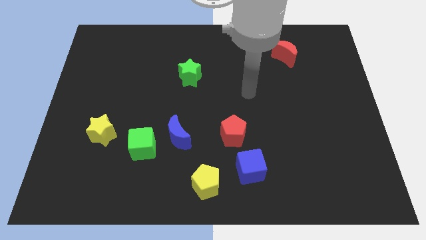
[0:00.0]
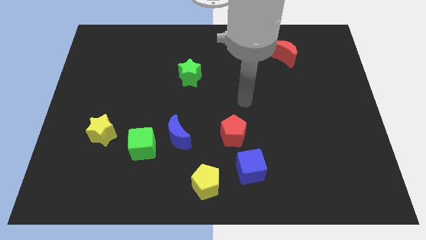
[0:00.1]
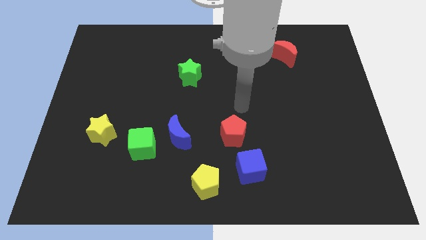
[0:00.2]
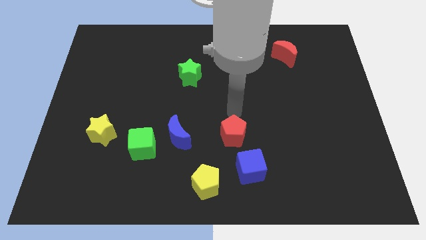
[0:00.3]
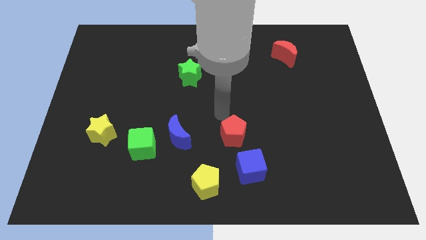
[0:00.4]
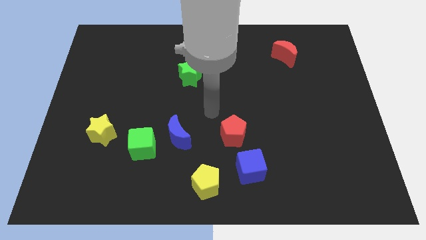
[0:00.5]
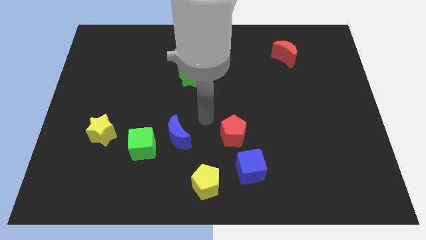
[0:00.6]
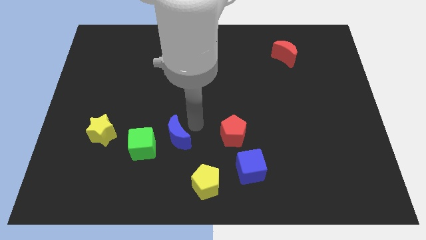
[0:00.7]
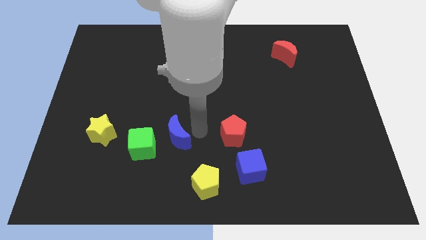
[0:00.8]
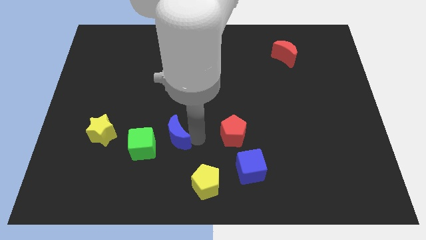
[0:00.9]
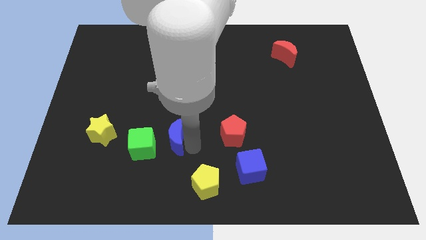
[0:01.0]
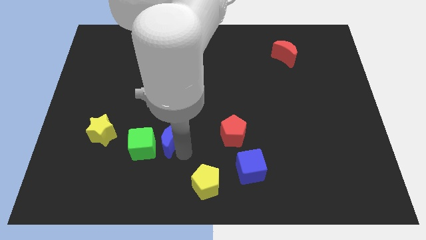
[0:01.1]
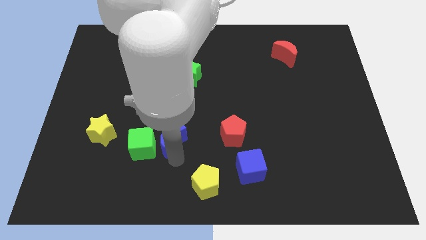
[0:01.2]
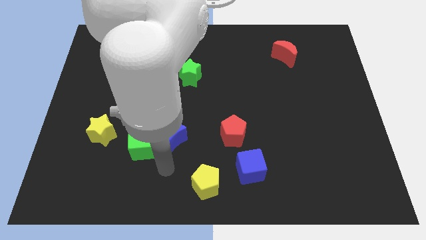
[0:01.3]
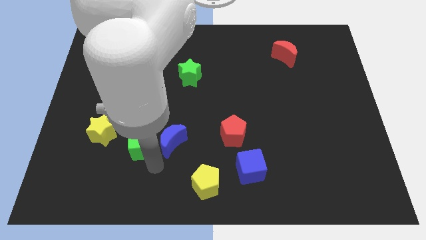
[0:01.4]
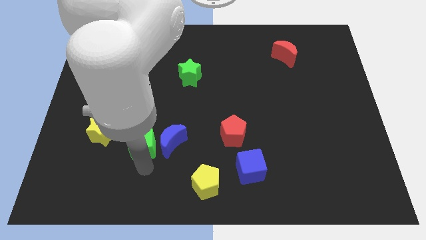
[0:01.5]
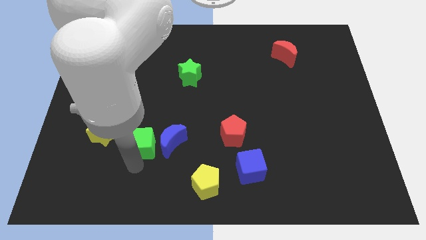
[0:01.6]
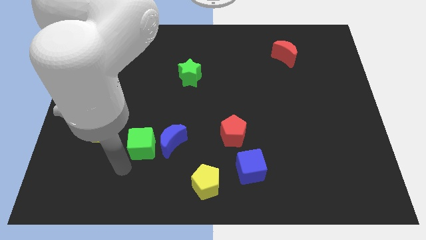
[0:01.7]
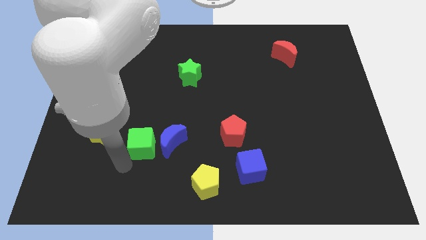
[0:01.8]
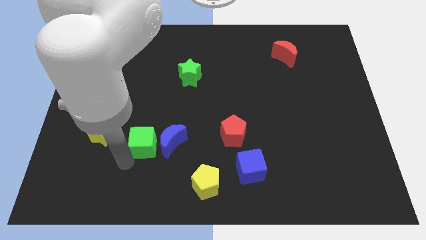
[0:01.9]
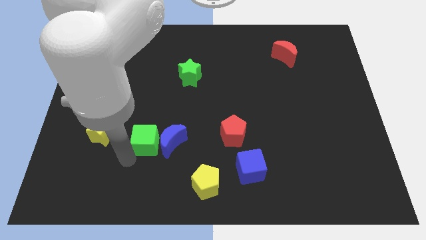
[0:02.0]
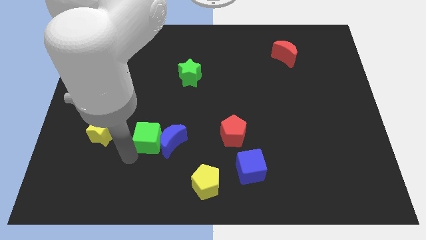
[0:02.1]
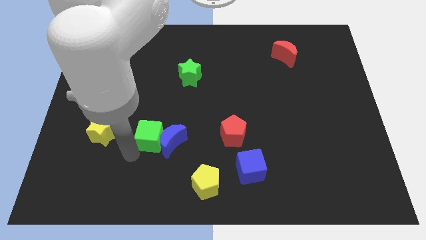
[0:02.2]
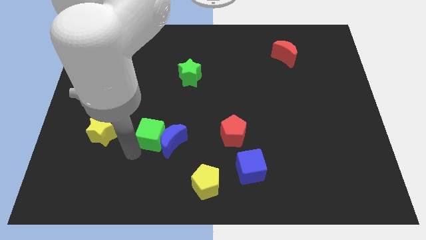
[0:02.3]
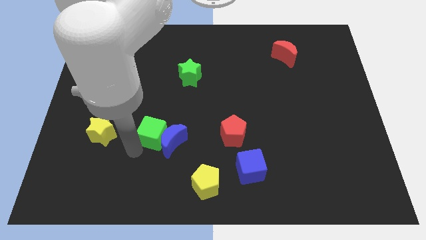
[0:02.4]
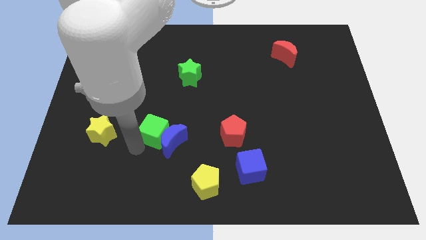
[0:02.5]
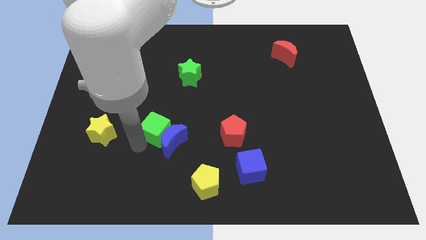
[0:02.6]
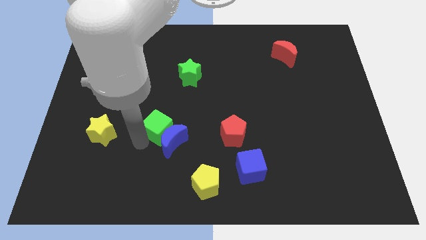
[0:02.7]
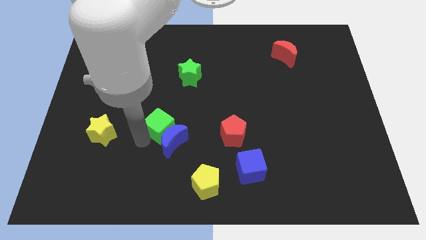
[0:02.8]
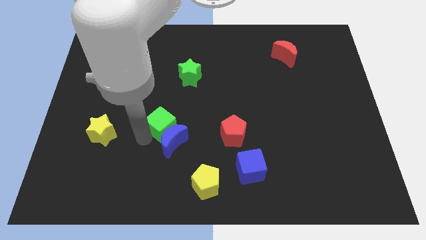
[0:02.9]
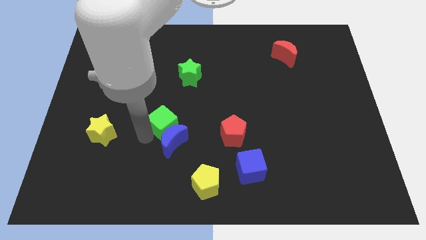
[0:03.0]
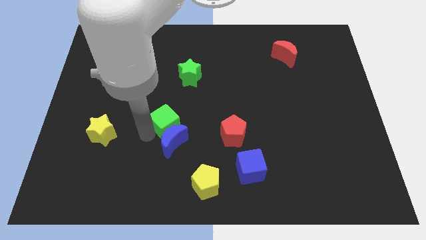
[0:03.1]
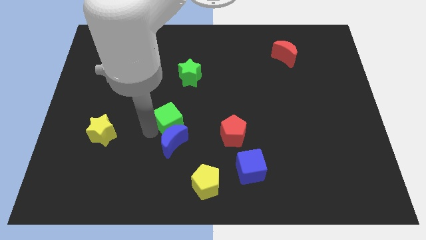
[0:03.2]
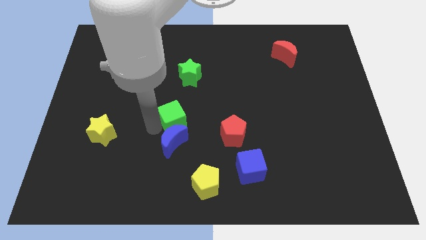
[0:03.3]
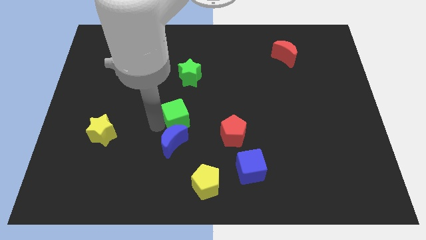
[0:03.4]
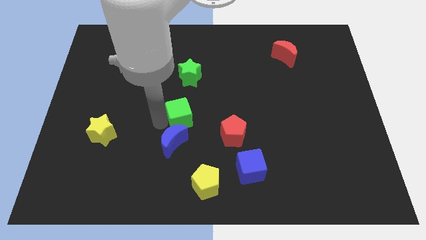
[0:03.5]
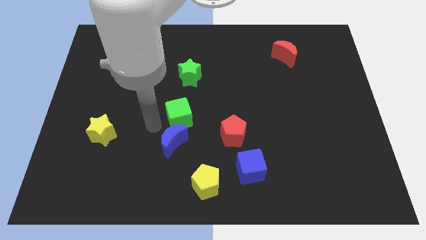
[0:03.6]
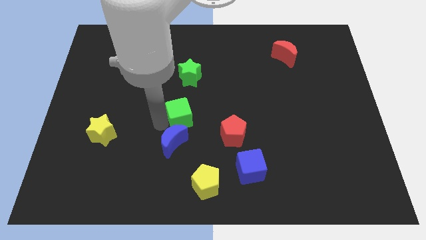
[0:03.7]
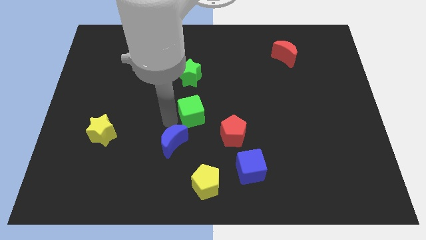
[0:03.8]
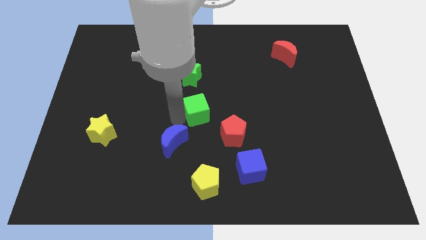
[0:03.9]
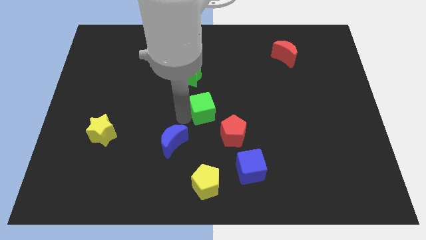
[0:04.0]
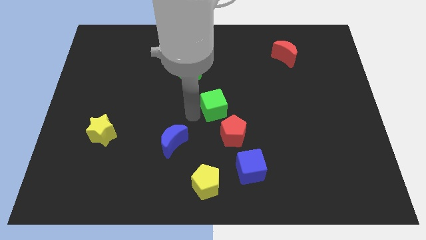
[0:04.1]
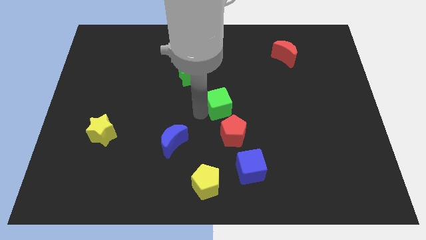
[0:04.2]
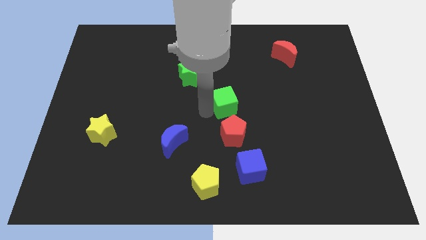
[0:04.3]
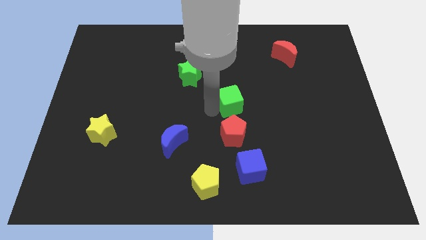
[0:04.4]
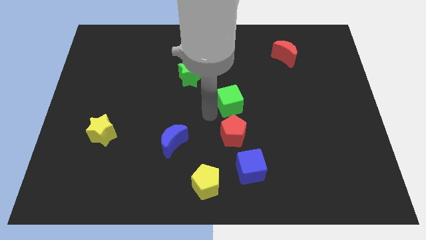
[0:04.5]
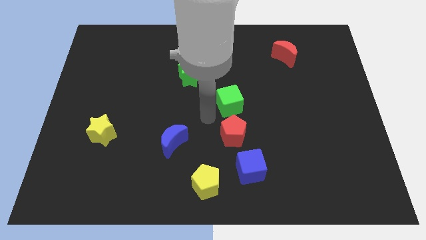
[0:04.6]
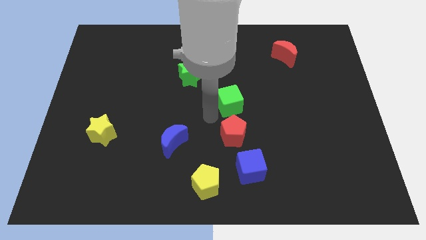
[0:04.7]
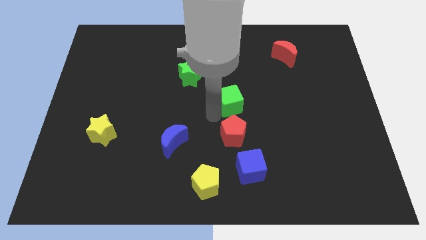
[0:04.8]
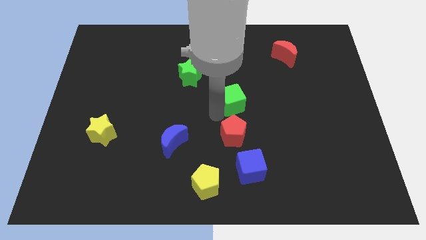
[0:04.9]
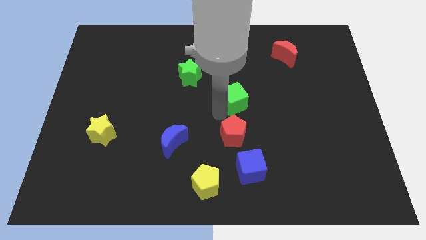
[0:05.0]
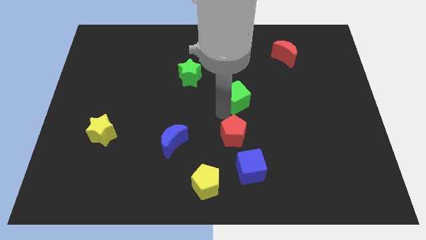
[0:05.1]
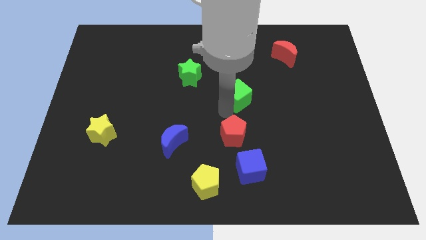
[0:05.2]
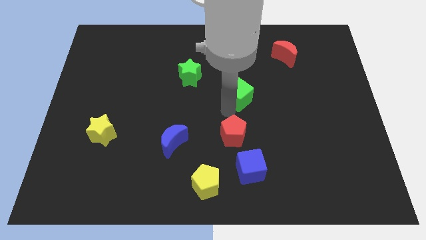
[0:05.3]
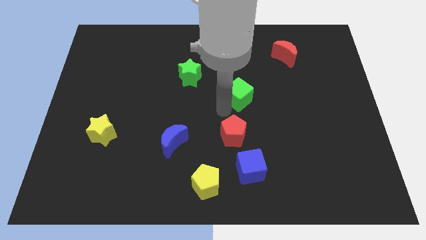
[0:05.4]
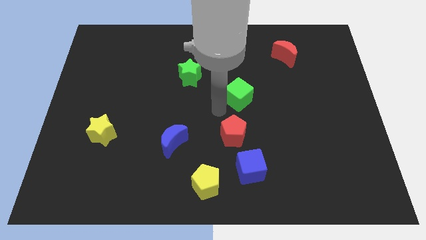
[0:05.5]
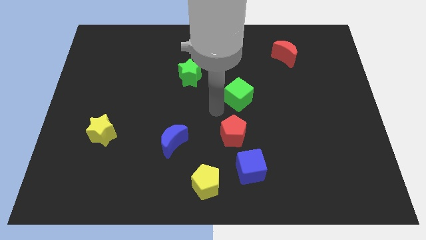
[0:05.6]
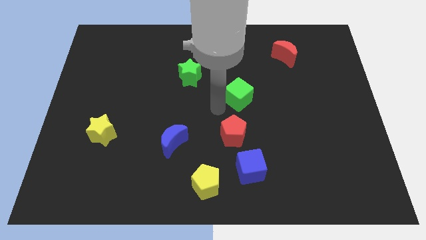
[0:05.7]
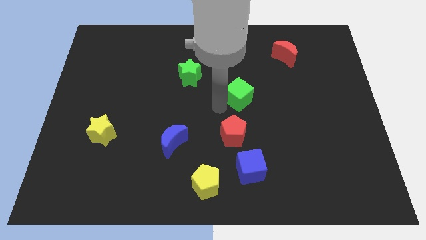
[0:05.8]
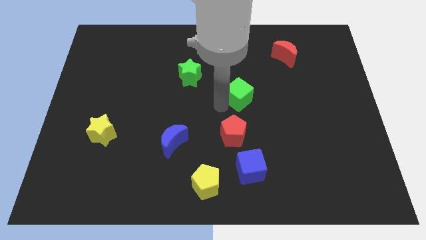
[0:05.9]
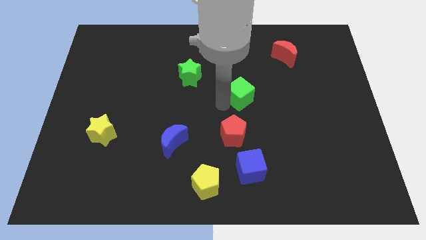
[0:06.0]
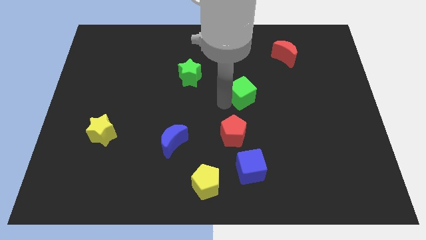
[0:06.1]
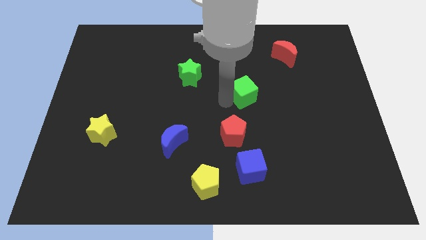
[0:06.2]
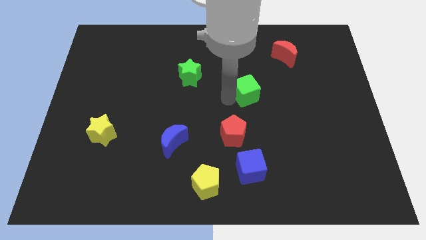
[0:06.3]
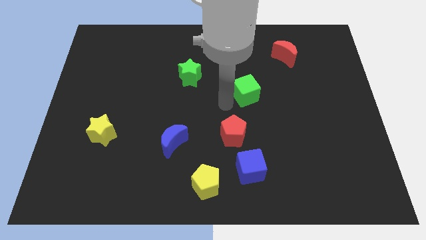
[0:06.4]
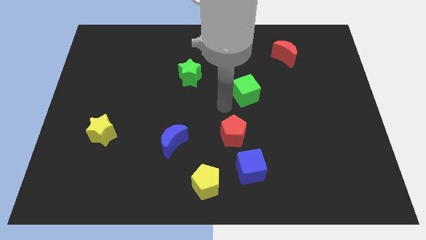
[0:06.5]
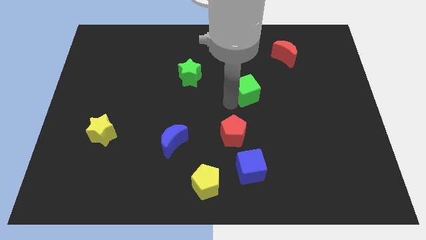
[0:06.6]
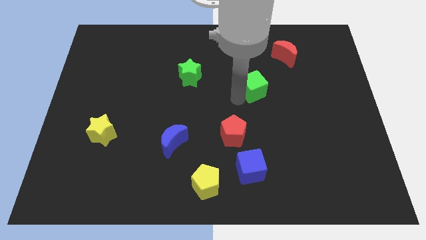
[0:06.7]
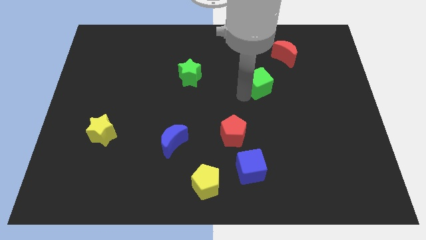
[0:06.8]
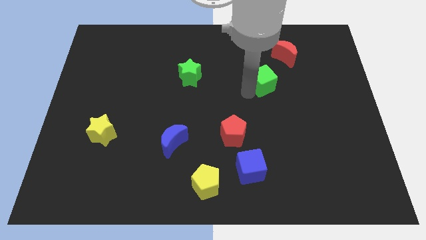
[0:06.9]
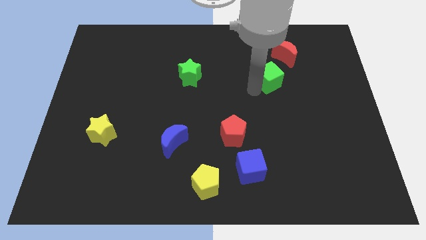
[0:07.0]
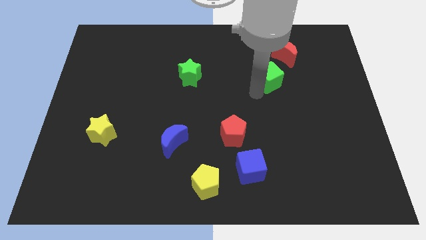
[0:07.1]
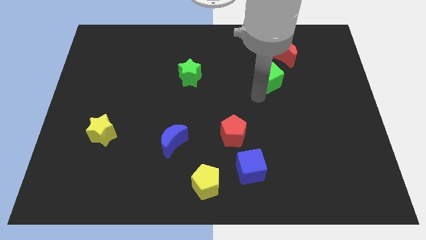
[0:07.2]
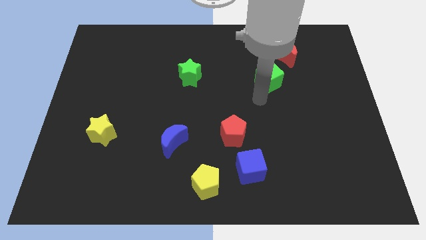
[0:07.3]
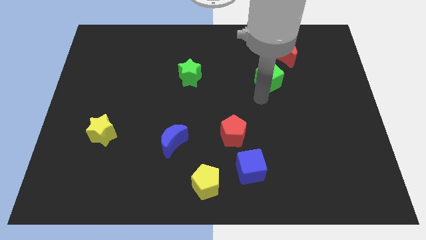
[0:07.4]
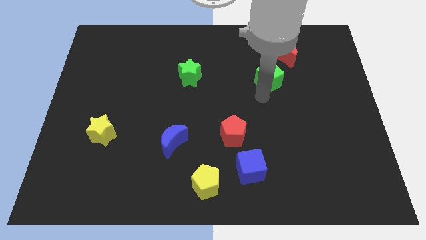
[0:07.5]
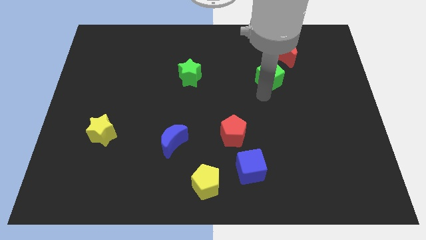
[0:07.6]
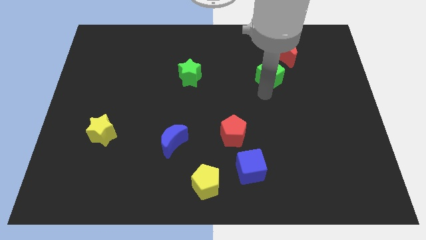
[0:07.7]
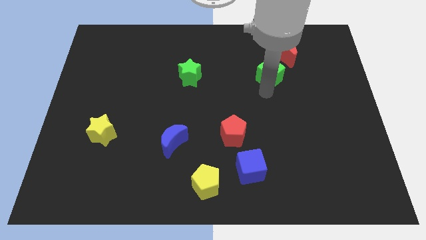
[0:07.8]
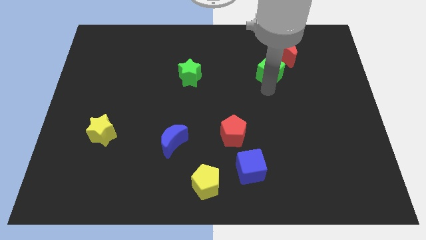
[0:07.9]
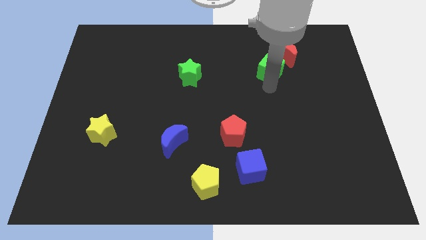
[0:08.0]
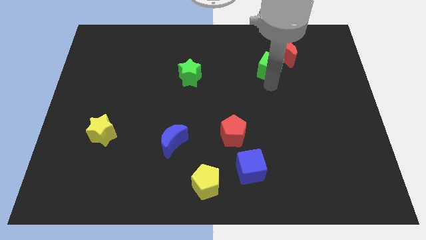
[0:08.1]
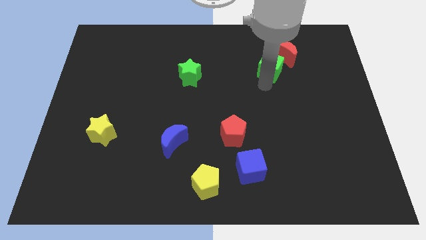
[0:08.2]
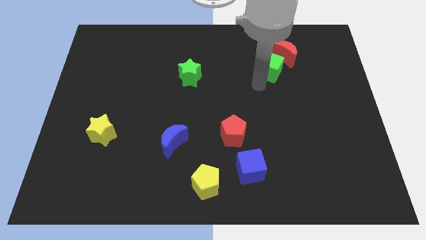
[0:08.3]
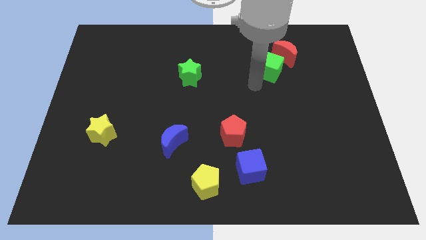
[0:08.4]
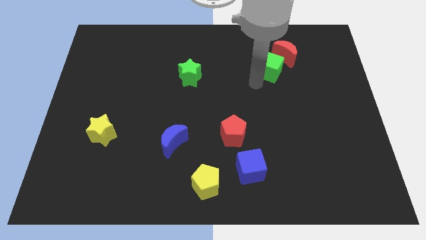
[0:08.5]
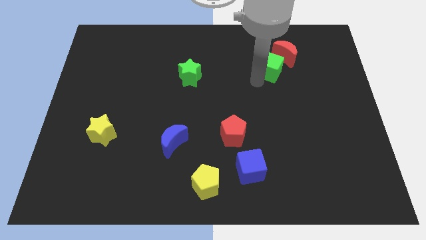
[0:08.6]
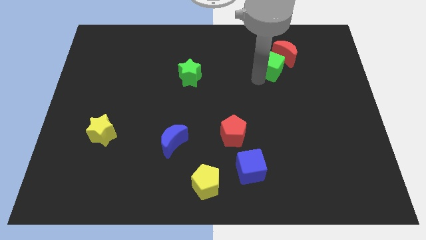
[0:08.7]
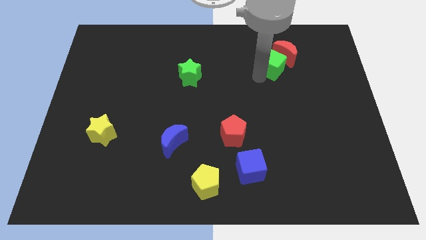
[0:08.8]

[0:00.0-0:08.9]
put the green cube towards the red moon
